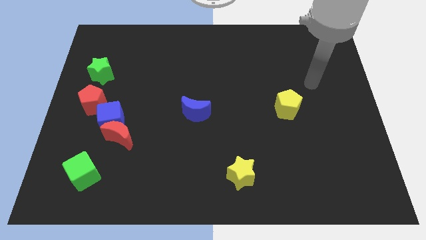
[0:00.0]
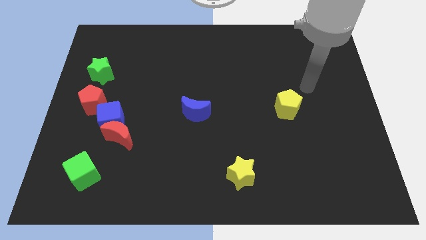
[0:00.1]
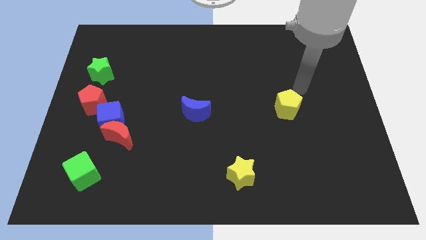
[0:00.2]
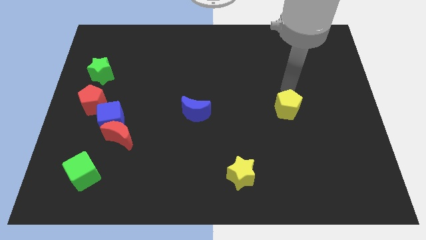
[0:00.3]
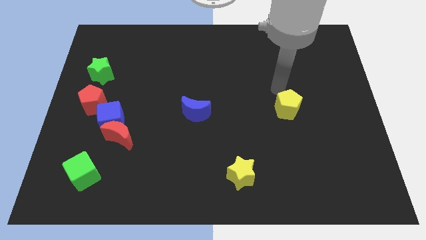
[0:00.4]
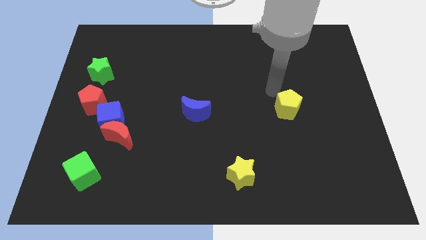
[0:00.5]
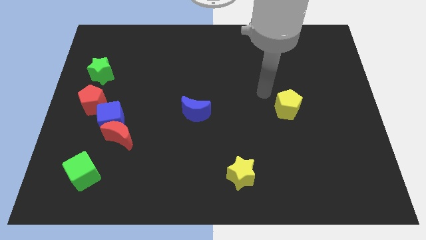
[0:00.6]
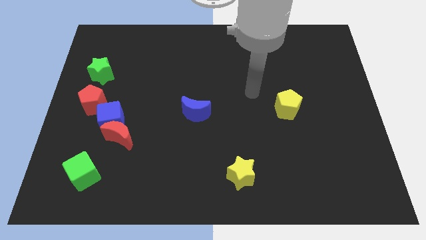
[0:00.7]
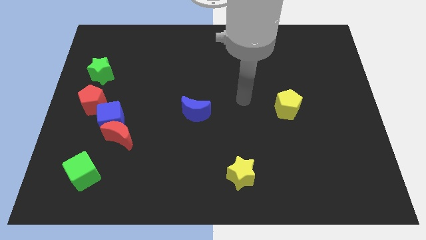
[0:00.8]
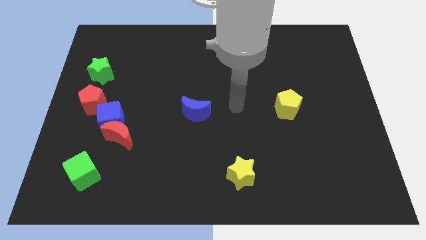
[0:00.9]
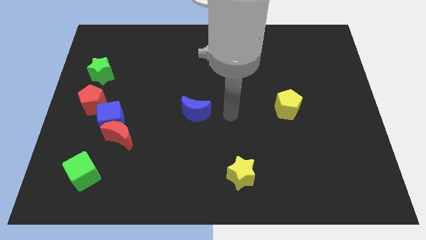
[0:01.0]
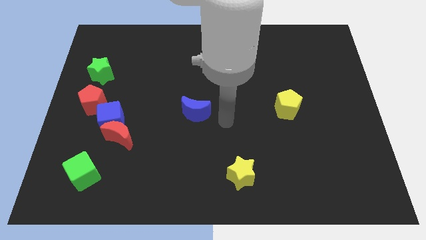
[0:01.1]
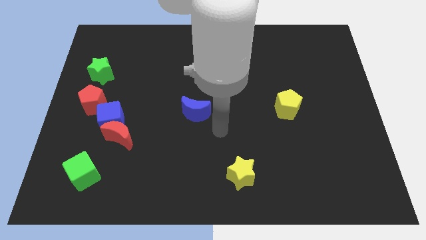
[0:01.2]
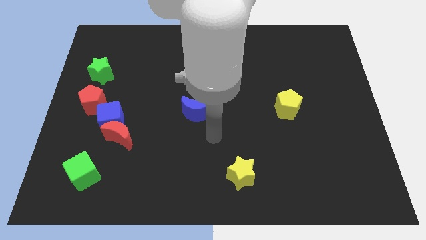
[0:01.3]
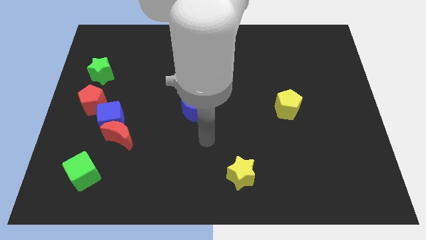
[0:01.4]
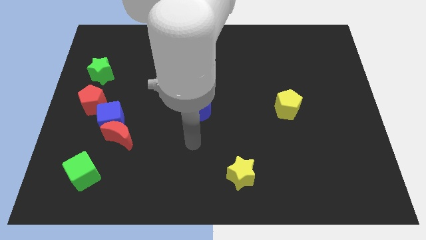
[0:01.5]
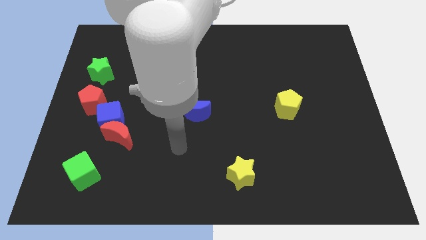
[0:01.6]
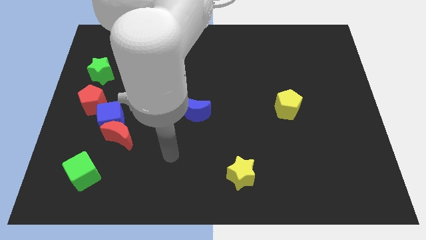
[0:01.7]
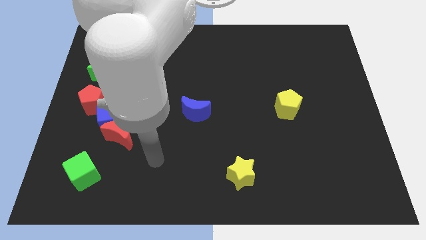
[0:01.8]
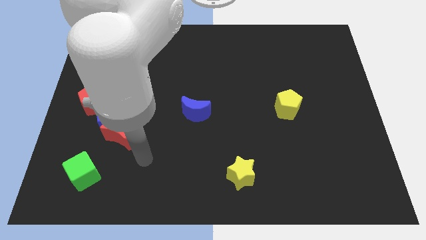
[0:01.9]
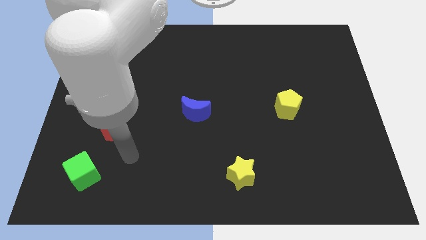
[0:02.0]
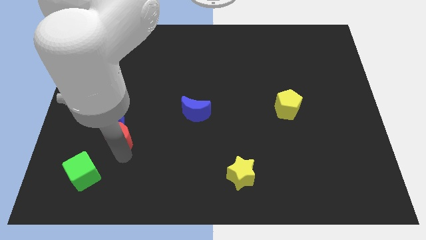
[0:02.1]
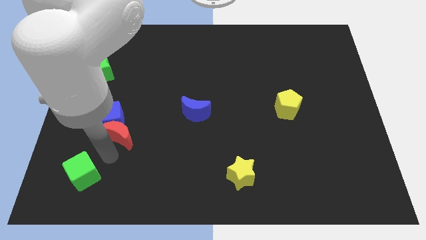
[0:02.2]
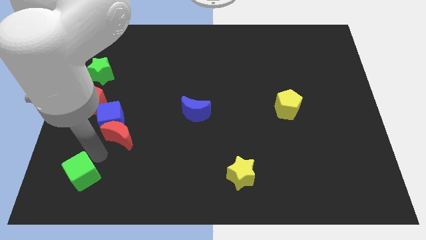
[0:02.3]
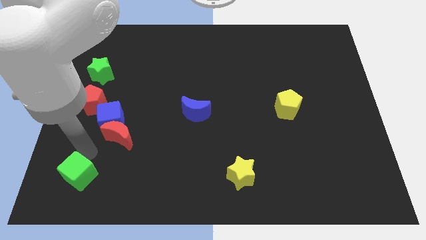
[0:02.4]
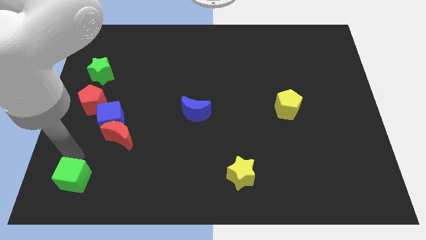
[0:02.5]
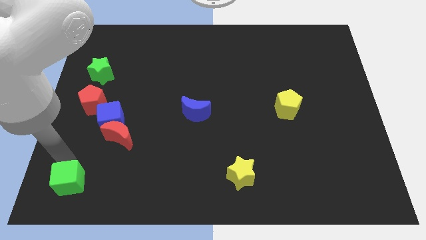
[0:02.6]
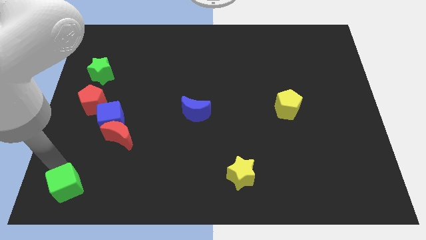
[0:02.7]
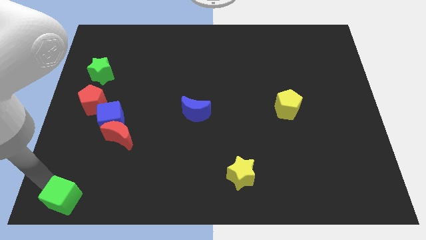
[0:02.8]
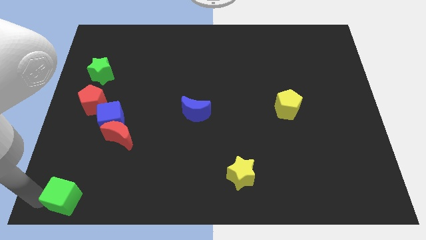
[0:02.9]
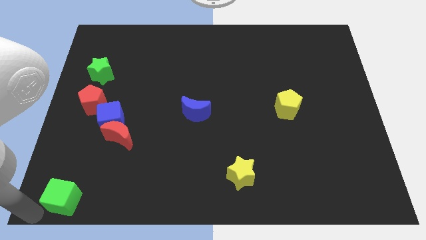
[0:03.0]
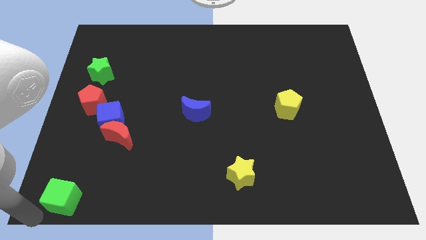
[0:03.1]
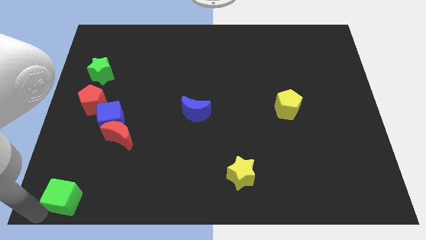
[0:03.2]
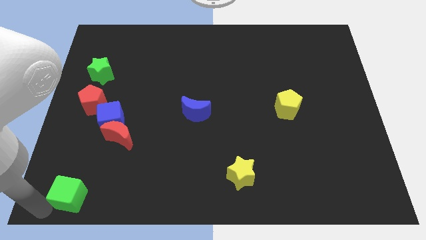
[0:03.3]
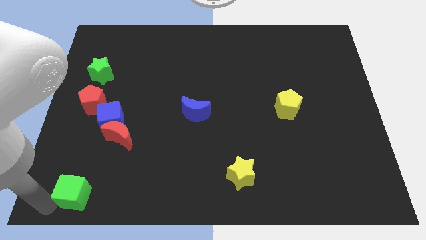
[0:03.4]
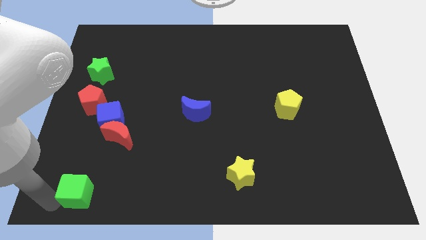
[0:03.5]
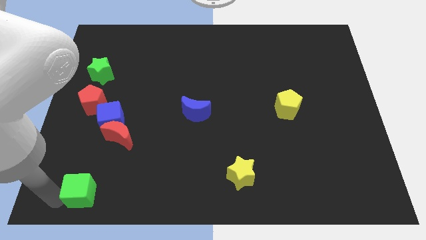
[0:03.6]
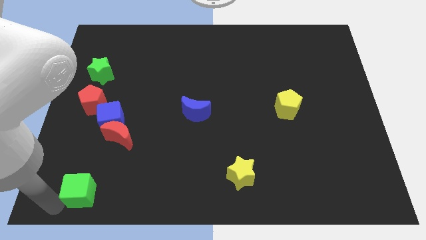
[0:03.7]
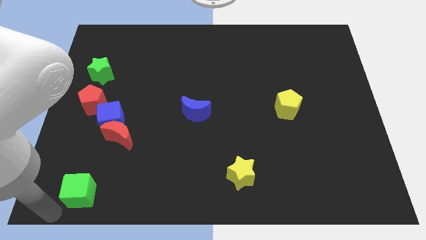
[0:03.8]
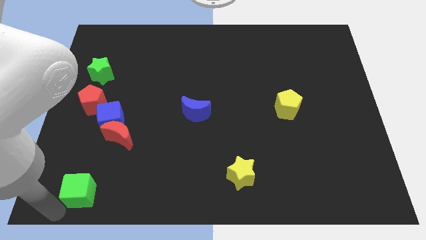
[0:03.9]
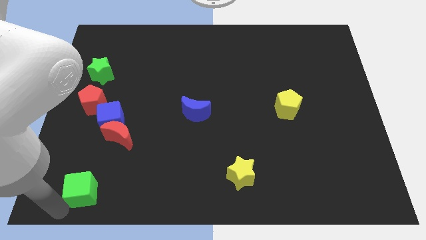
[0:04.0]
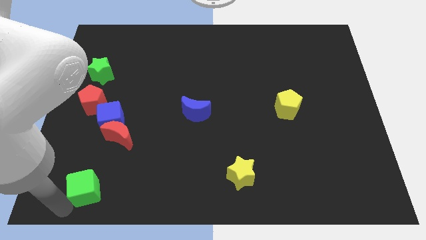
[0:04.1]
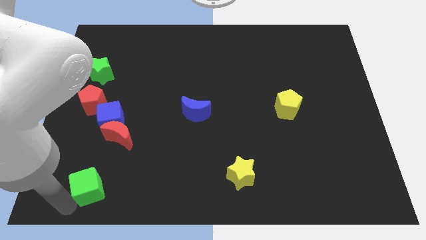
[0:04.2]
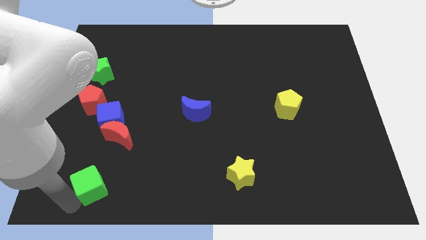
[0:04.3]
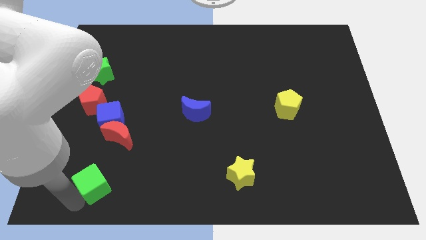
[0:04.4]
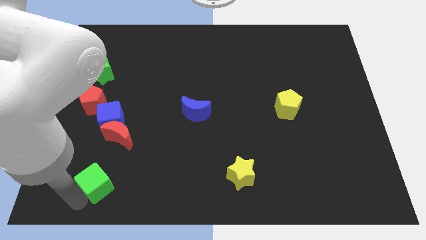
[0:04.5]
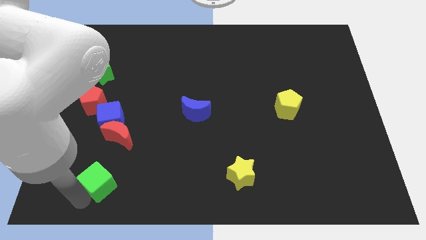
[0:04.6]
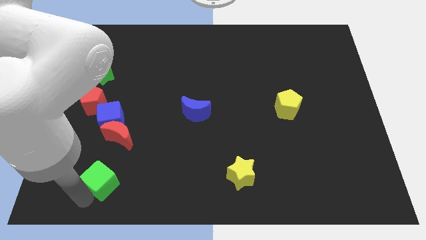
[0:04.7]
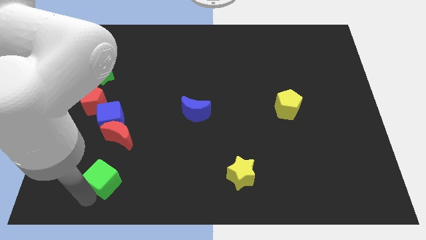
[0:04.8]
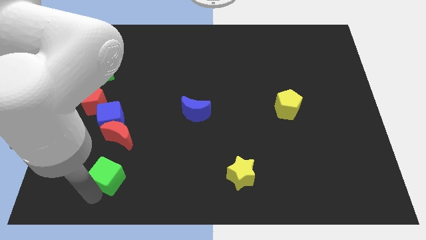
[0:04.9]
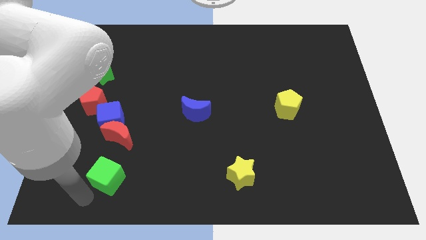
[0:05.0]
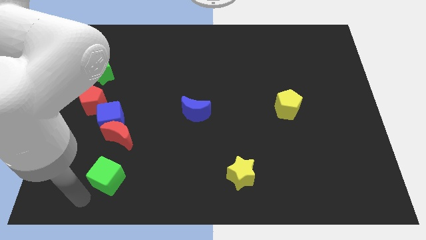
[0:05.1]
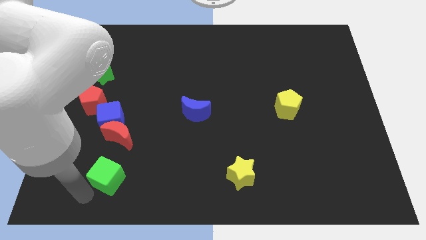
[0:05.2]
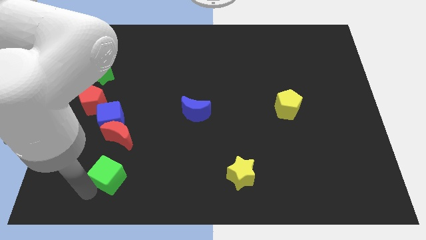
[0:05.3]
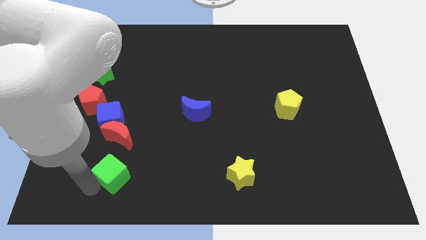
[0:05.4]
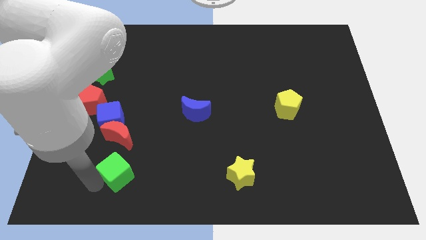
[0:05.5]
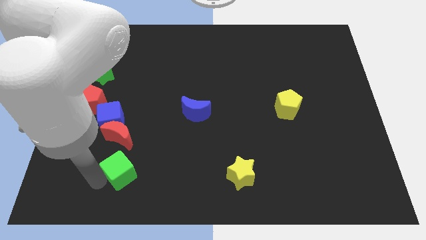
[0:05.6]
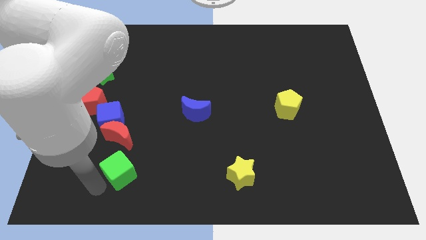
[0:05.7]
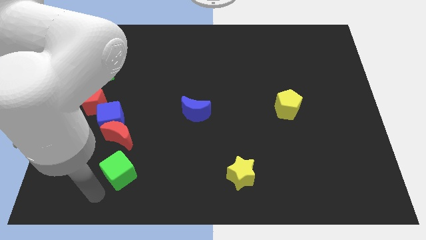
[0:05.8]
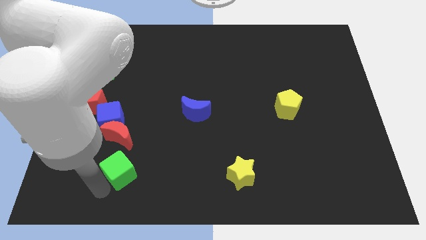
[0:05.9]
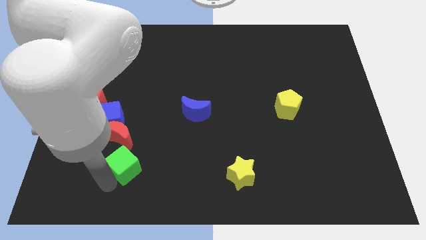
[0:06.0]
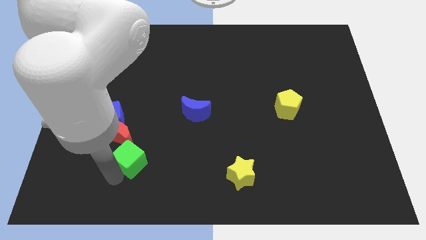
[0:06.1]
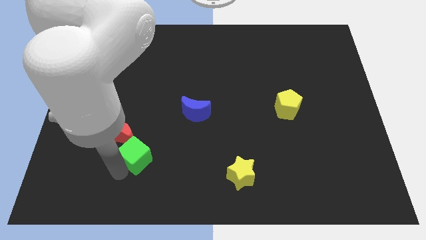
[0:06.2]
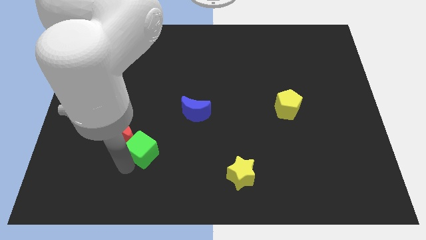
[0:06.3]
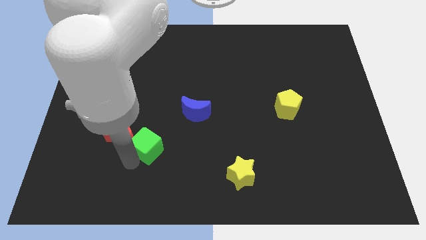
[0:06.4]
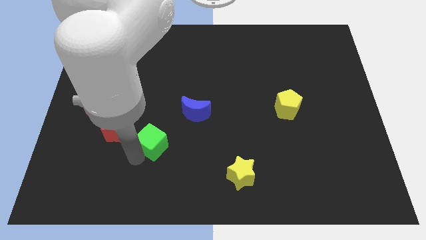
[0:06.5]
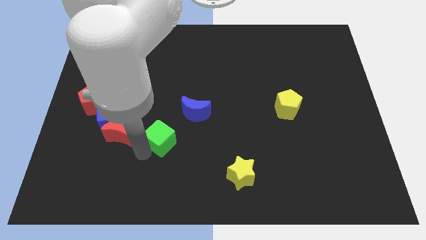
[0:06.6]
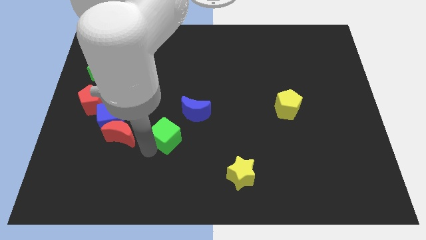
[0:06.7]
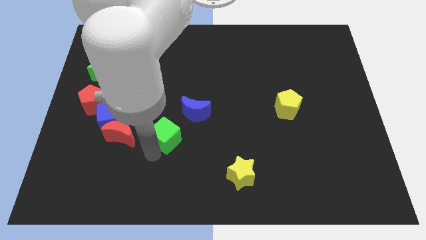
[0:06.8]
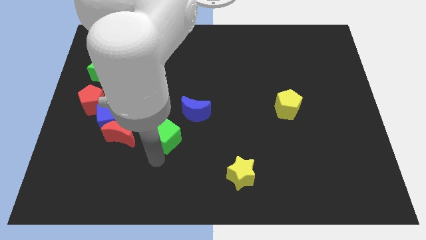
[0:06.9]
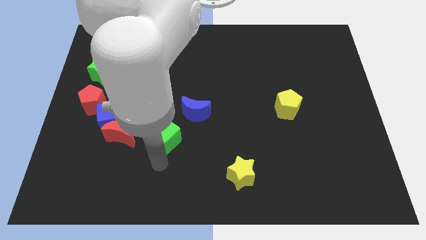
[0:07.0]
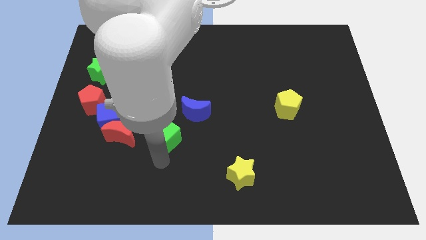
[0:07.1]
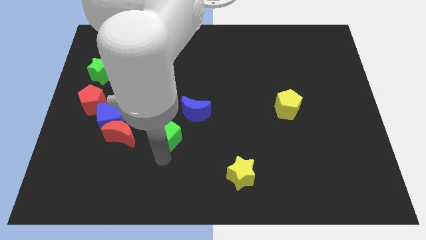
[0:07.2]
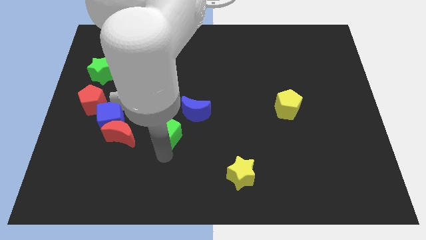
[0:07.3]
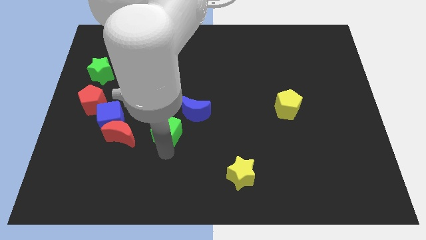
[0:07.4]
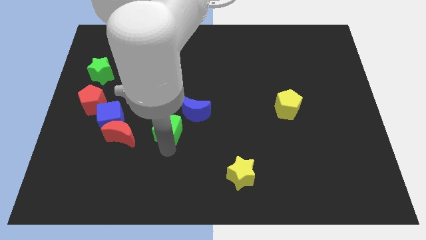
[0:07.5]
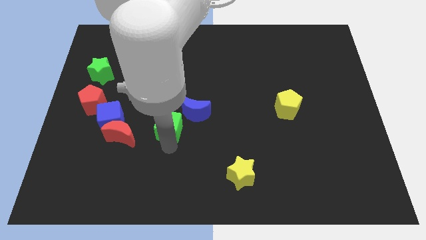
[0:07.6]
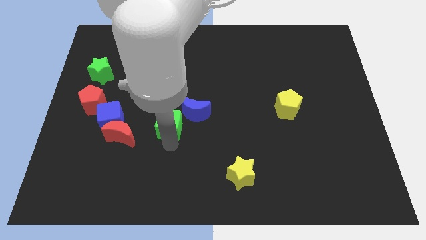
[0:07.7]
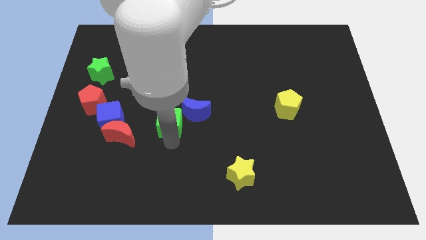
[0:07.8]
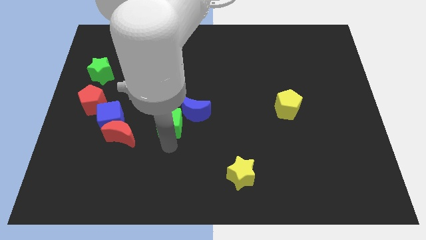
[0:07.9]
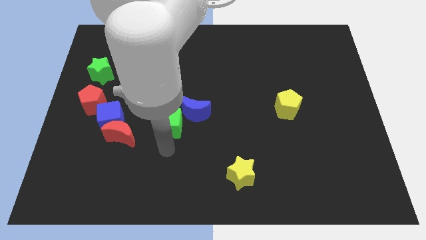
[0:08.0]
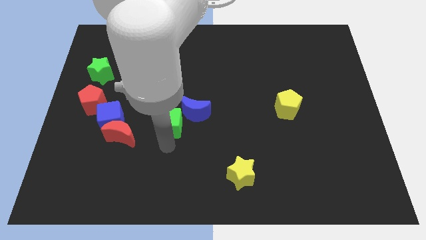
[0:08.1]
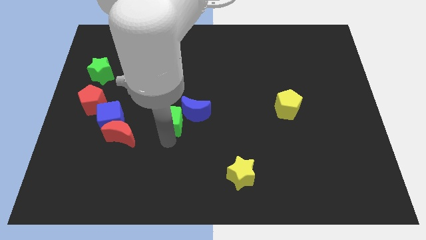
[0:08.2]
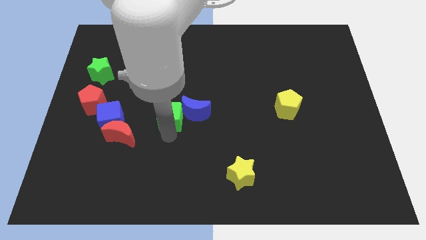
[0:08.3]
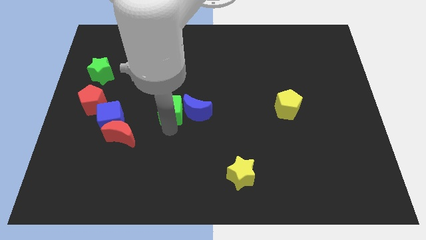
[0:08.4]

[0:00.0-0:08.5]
slide the green cube diagonally up and to the left of the blue moon
